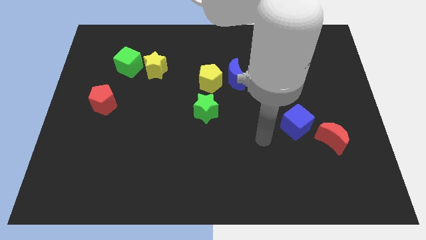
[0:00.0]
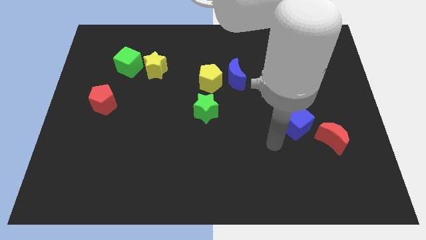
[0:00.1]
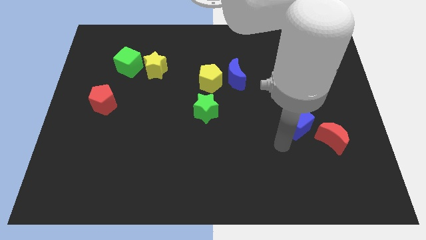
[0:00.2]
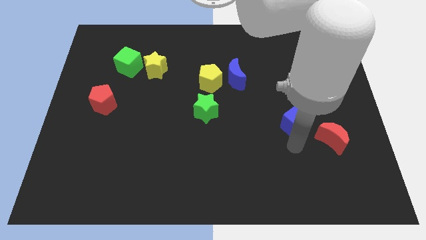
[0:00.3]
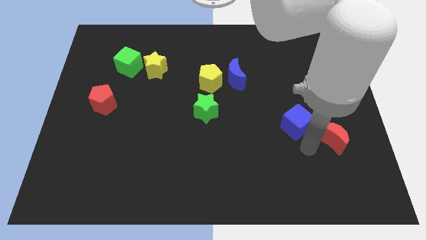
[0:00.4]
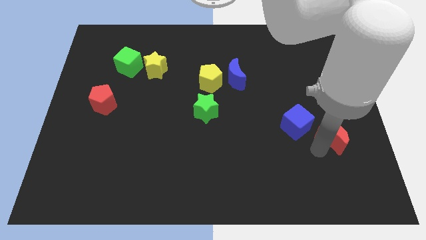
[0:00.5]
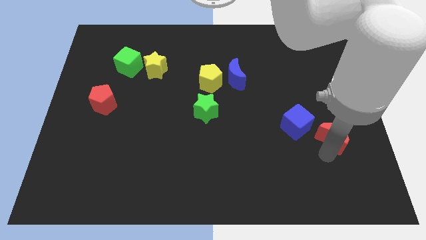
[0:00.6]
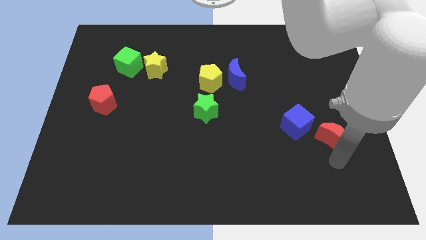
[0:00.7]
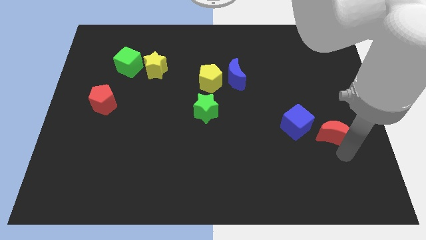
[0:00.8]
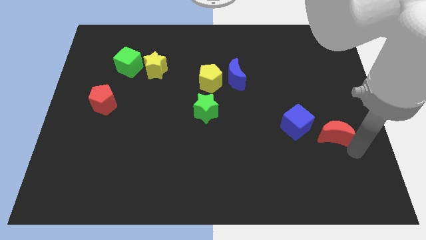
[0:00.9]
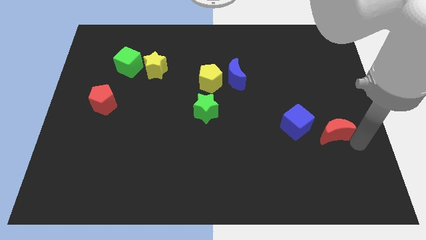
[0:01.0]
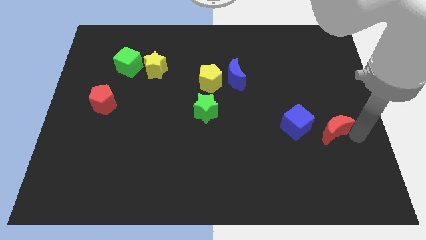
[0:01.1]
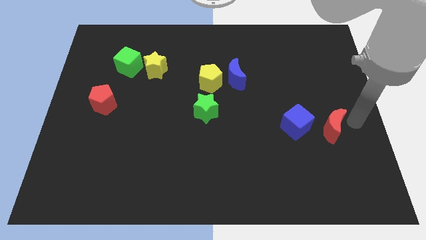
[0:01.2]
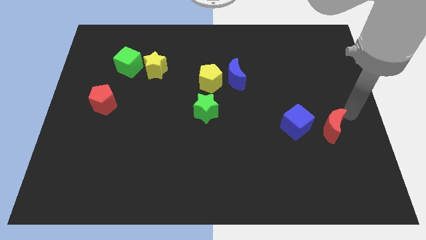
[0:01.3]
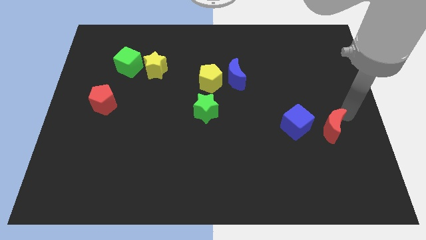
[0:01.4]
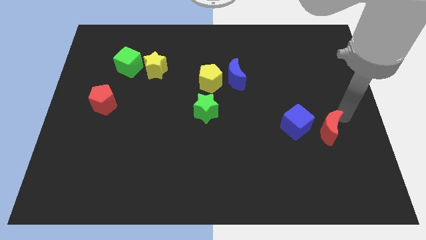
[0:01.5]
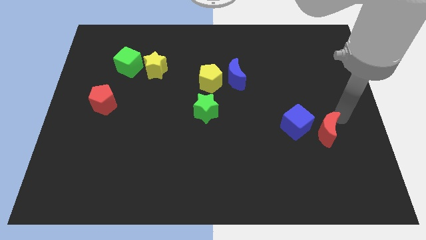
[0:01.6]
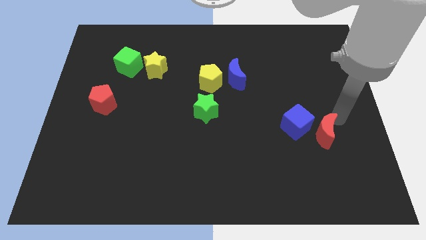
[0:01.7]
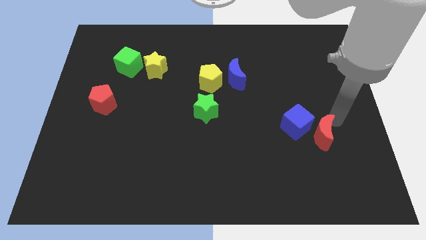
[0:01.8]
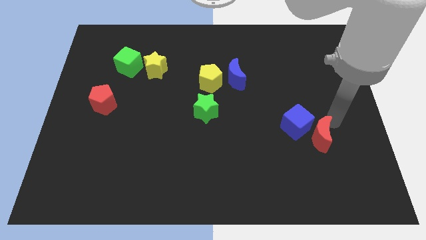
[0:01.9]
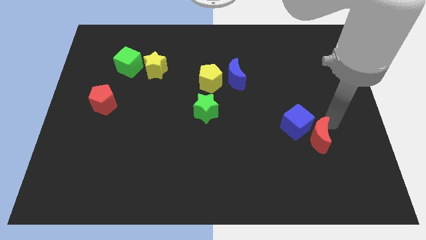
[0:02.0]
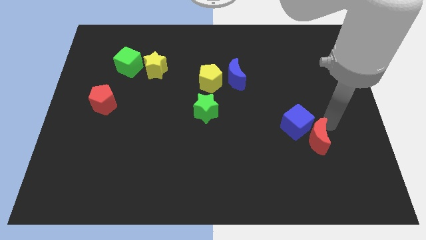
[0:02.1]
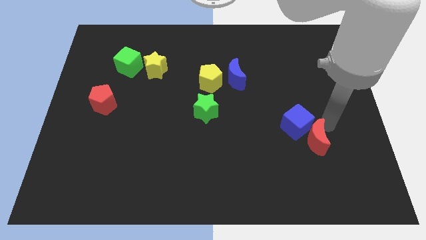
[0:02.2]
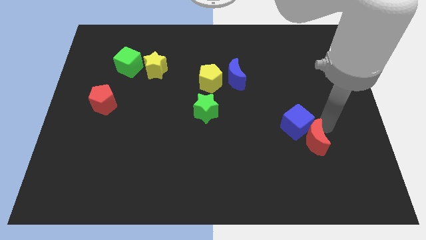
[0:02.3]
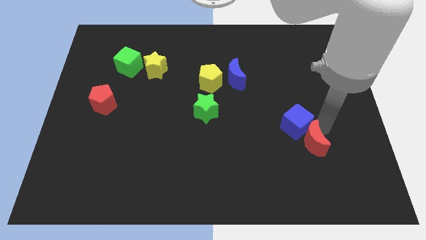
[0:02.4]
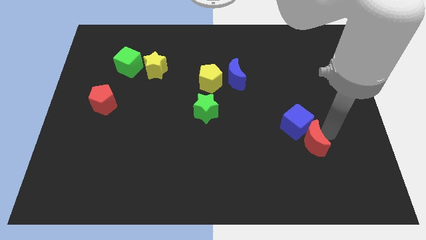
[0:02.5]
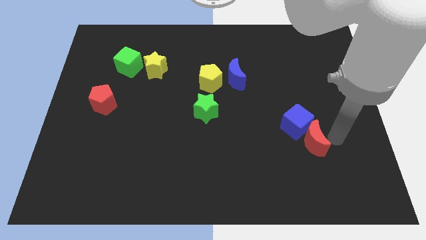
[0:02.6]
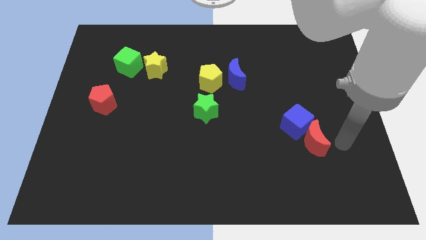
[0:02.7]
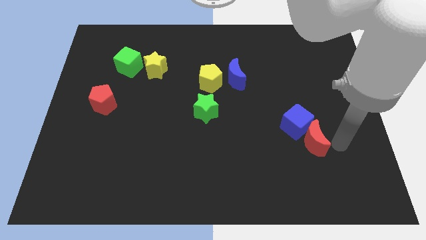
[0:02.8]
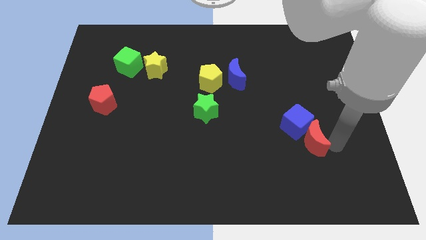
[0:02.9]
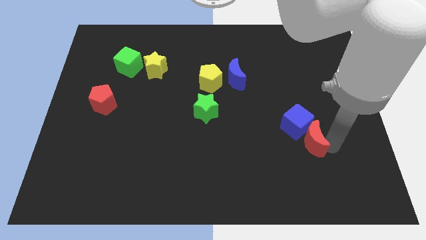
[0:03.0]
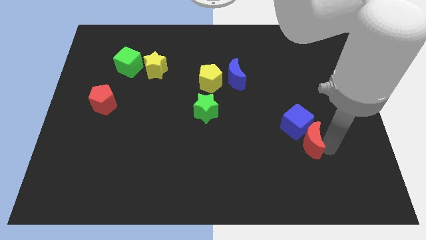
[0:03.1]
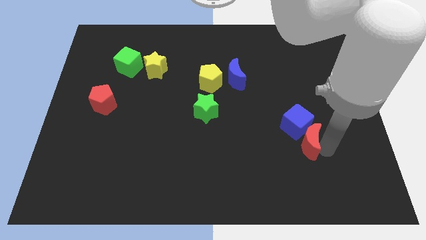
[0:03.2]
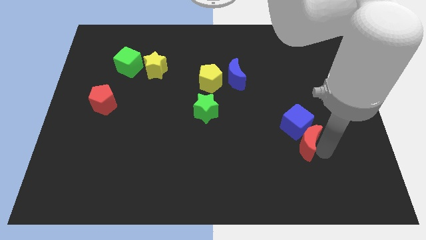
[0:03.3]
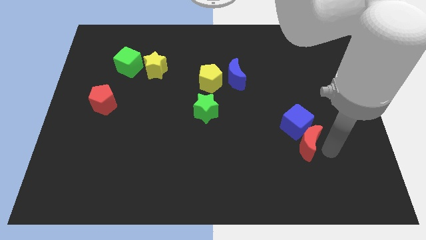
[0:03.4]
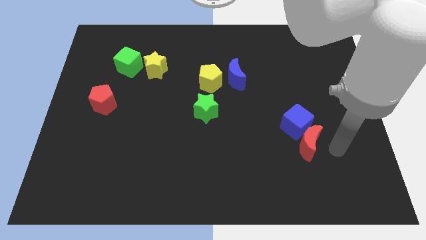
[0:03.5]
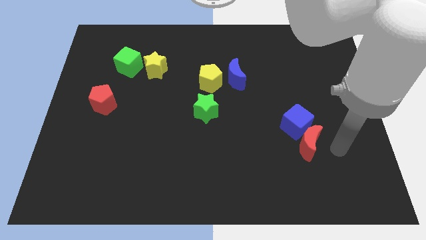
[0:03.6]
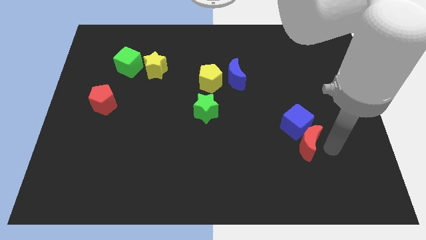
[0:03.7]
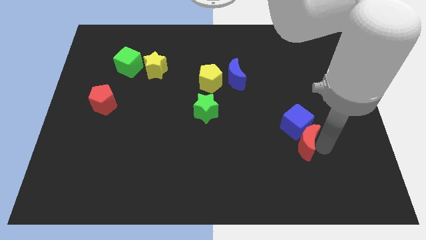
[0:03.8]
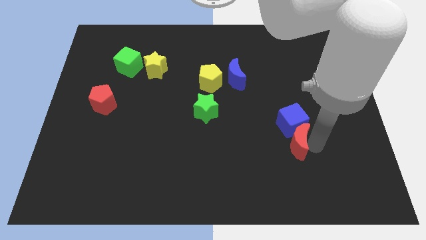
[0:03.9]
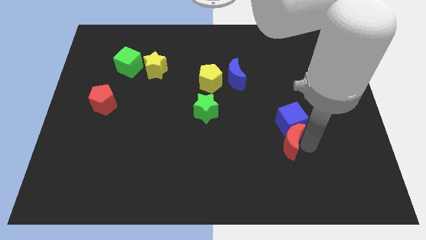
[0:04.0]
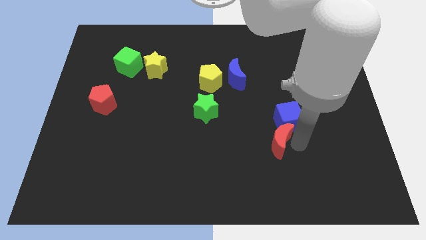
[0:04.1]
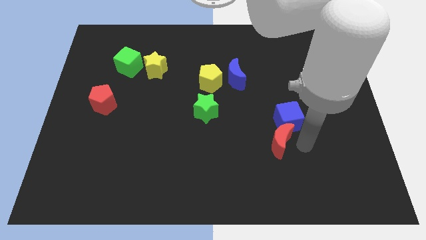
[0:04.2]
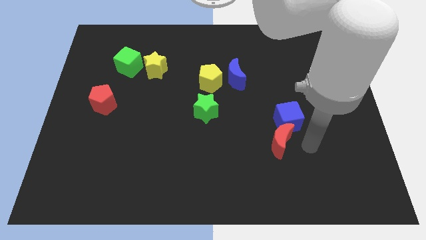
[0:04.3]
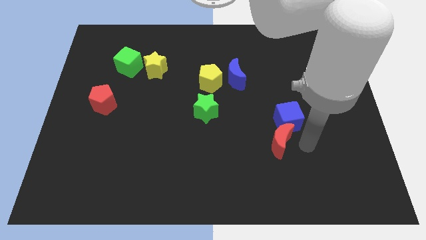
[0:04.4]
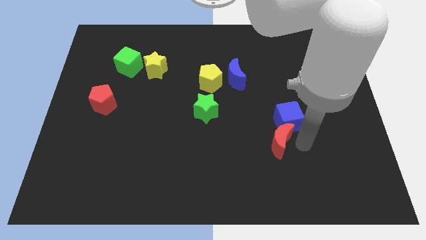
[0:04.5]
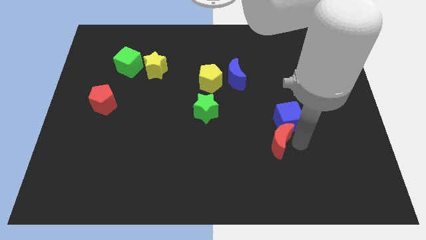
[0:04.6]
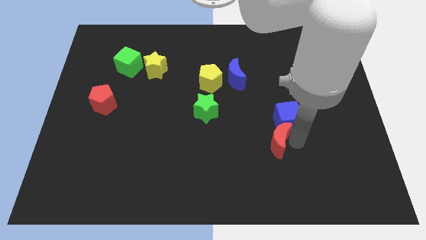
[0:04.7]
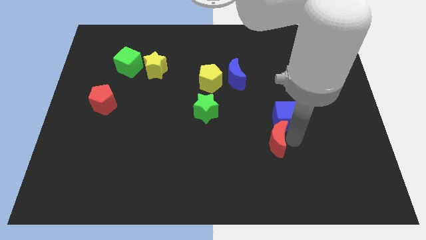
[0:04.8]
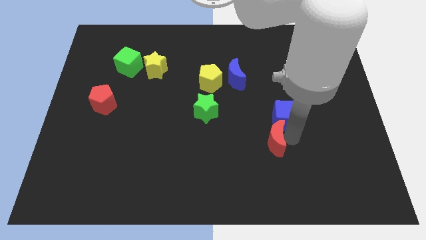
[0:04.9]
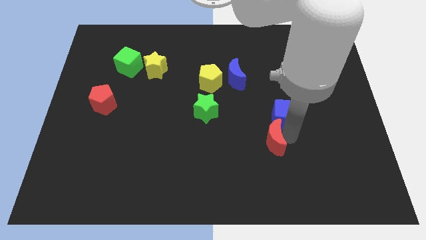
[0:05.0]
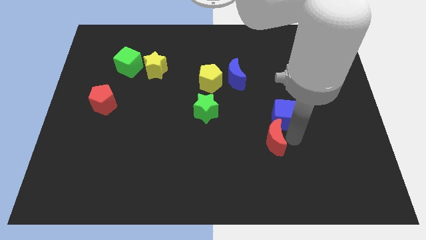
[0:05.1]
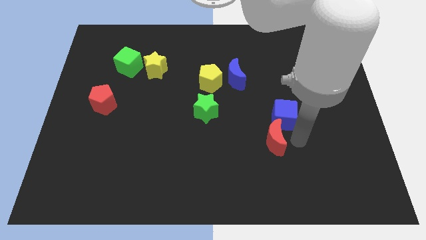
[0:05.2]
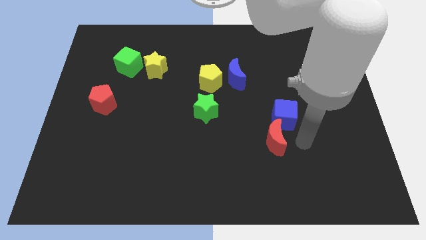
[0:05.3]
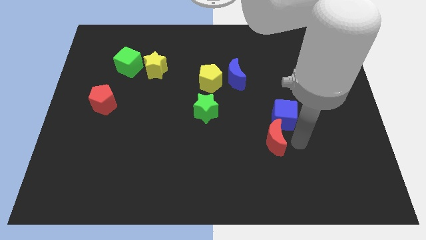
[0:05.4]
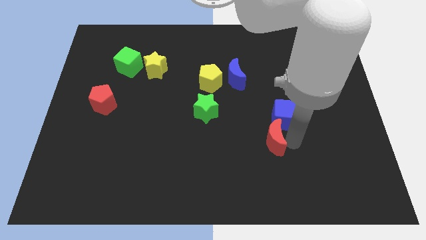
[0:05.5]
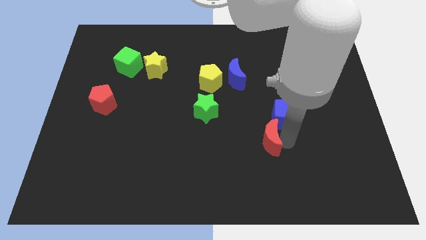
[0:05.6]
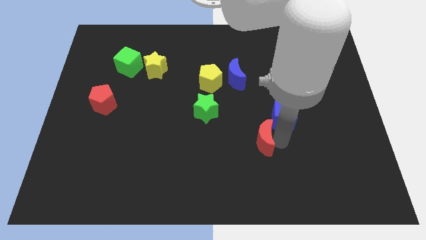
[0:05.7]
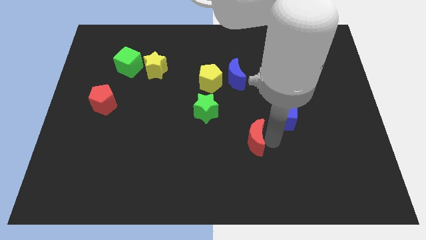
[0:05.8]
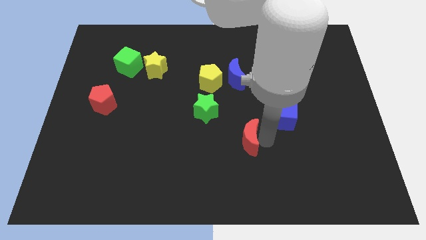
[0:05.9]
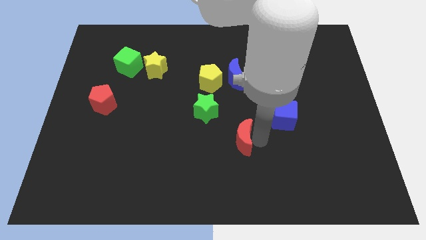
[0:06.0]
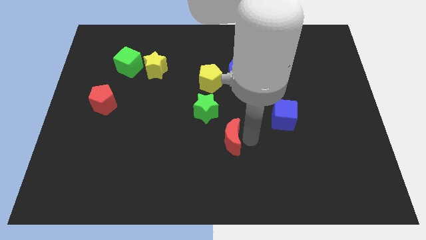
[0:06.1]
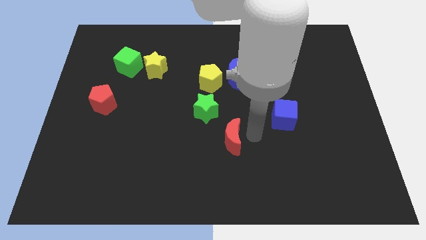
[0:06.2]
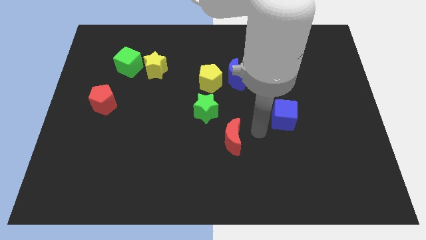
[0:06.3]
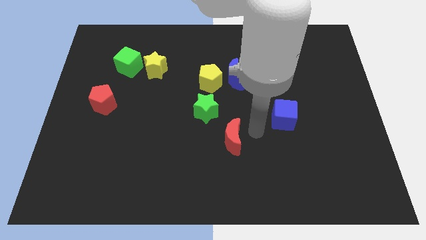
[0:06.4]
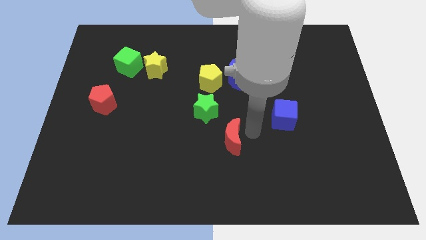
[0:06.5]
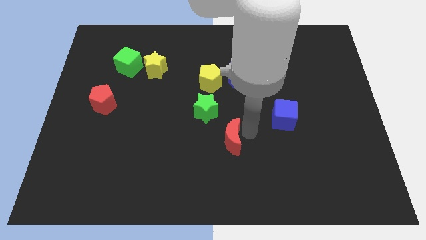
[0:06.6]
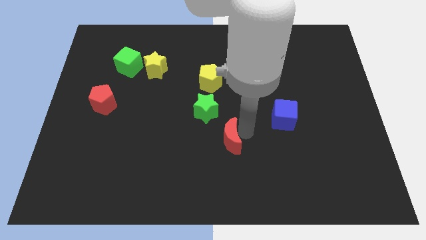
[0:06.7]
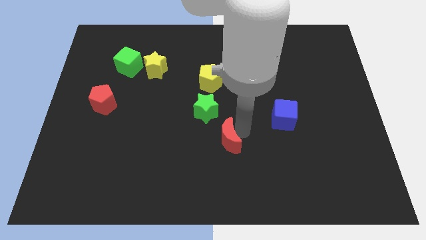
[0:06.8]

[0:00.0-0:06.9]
put the red moon to the bottom side of the green star

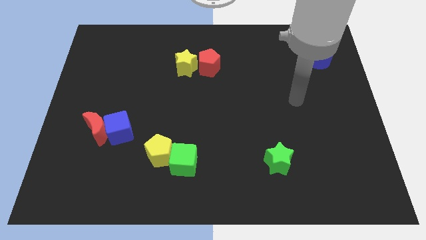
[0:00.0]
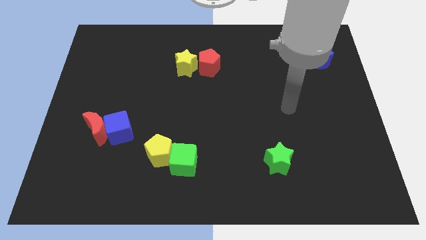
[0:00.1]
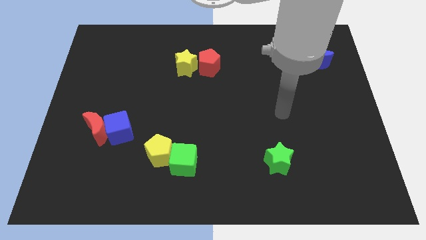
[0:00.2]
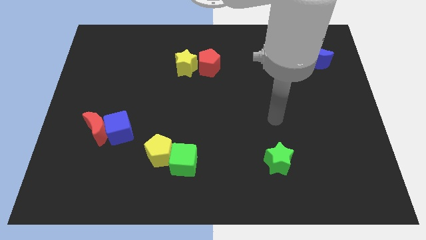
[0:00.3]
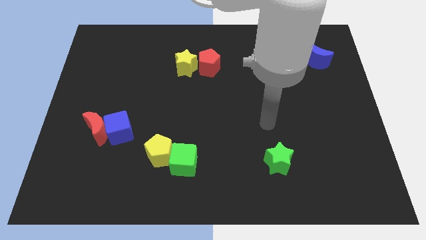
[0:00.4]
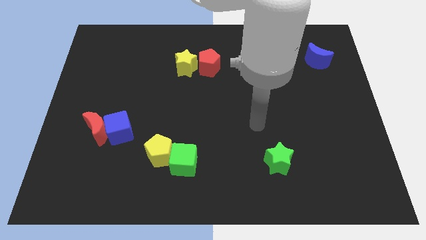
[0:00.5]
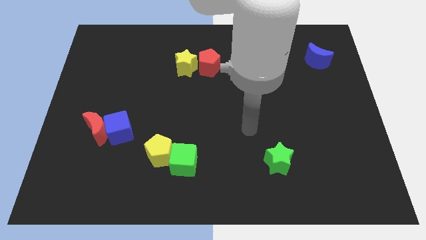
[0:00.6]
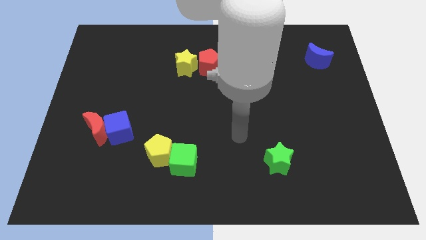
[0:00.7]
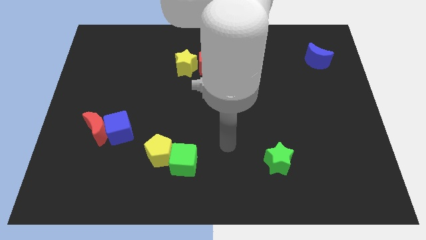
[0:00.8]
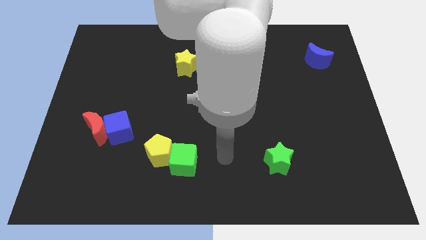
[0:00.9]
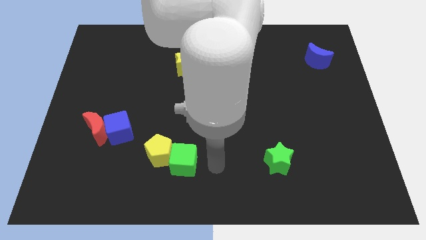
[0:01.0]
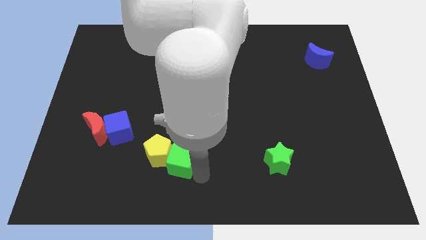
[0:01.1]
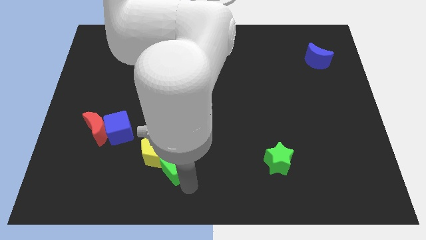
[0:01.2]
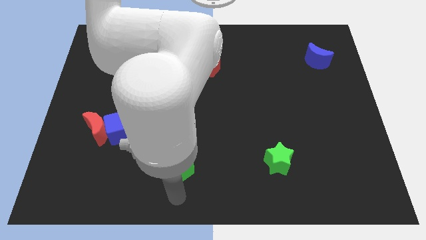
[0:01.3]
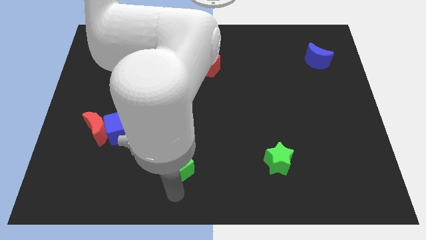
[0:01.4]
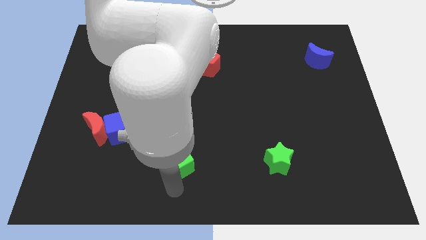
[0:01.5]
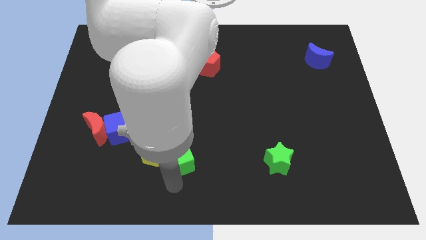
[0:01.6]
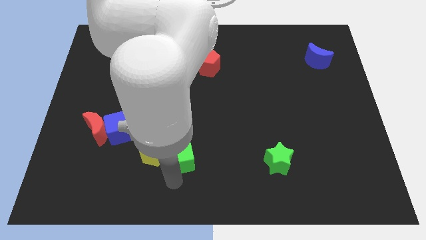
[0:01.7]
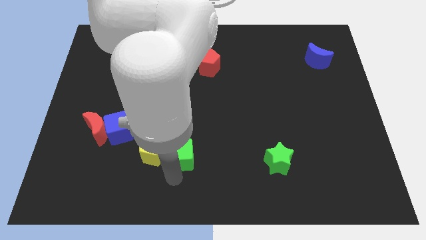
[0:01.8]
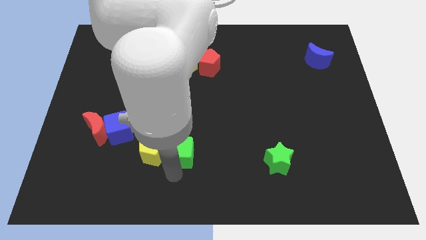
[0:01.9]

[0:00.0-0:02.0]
push the green cube to the top right side of the yellow pentagon
